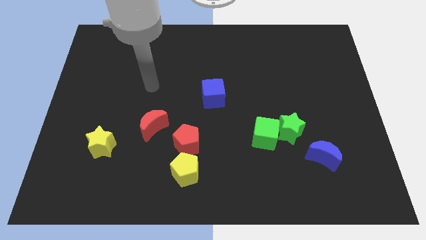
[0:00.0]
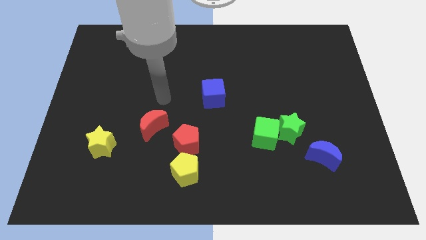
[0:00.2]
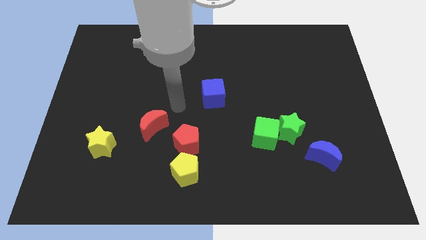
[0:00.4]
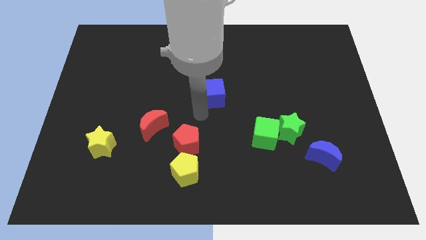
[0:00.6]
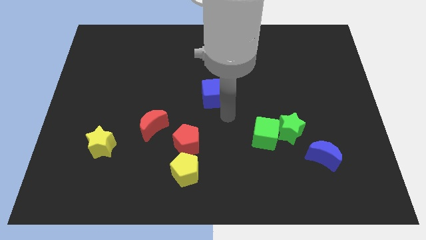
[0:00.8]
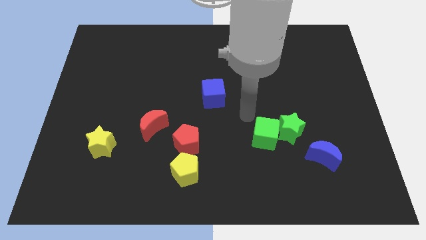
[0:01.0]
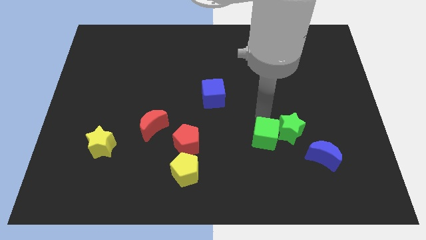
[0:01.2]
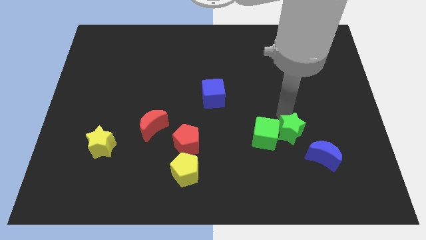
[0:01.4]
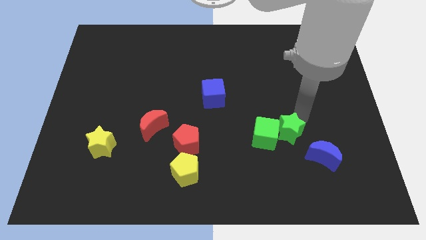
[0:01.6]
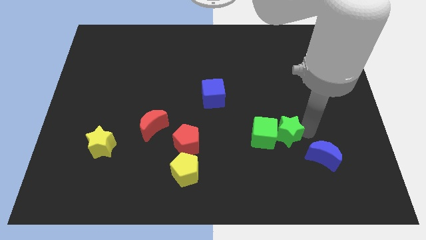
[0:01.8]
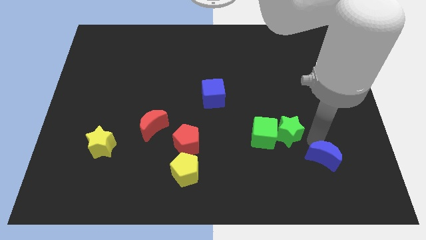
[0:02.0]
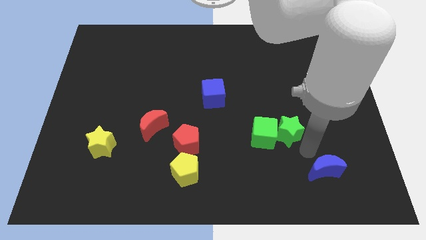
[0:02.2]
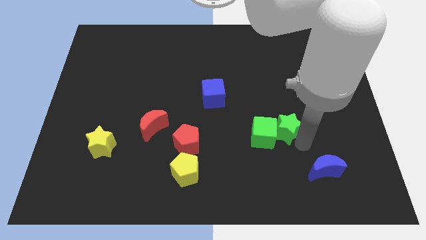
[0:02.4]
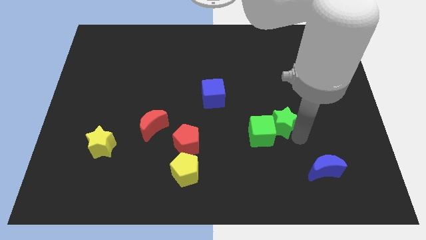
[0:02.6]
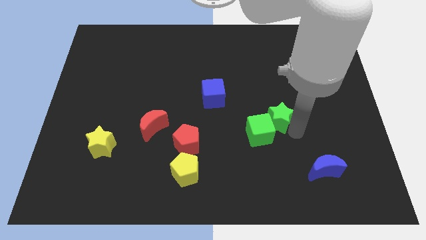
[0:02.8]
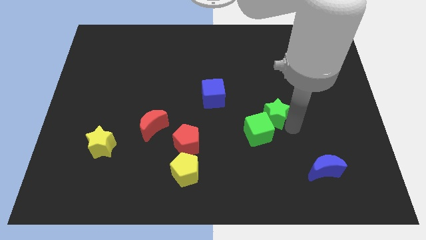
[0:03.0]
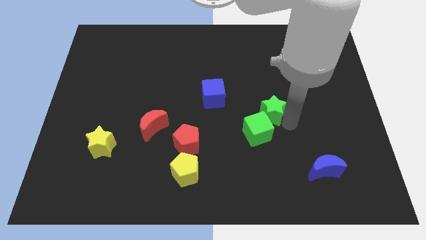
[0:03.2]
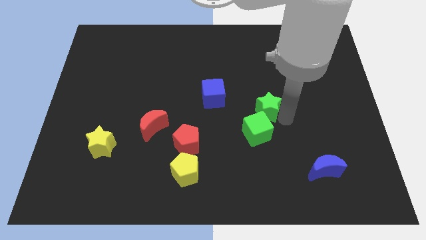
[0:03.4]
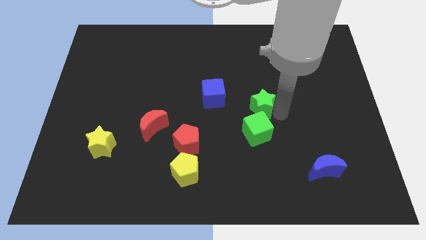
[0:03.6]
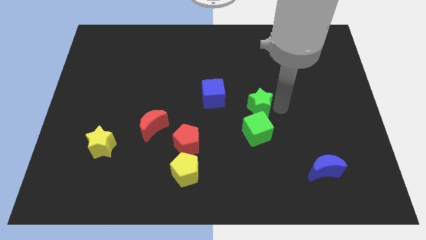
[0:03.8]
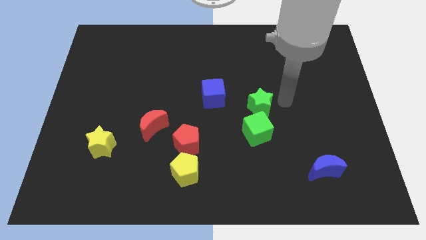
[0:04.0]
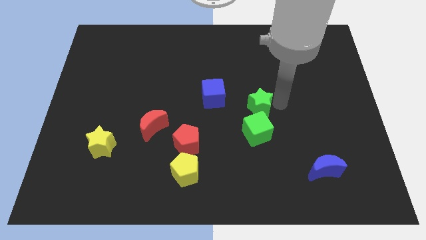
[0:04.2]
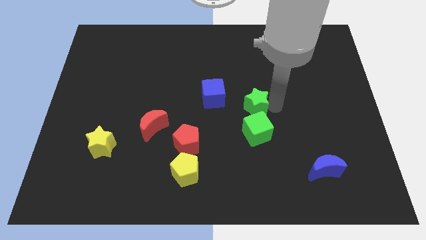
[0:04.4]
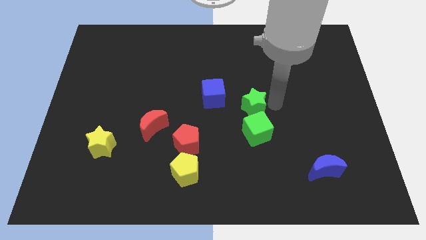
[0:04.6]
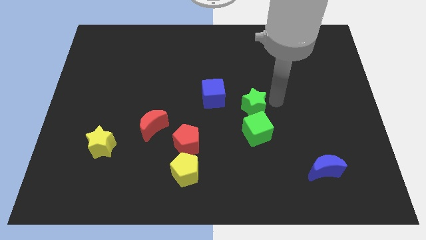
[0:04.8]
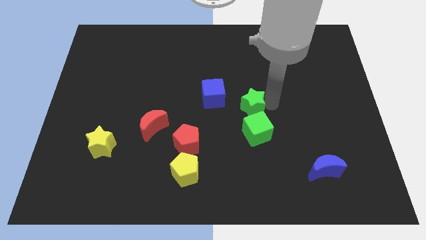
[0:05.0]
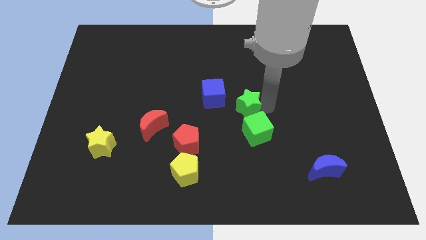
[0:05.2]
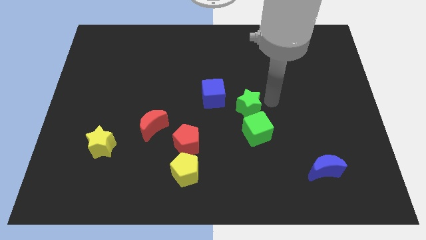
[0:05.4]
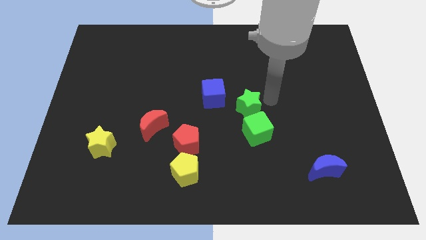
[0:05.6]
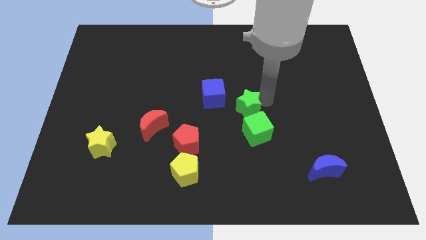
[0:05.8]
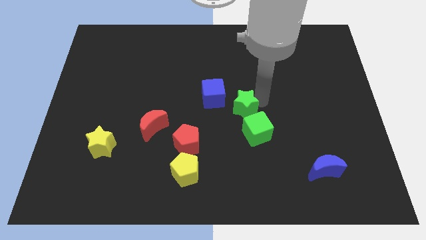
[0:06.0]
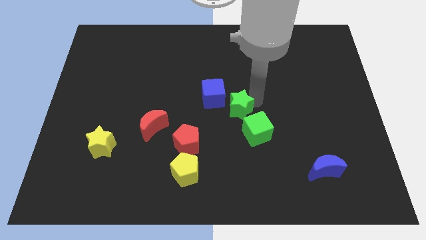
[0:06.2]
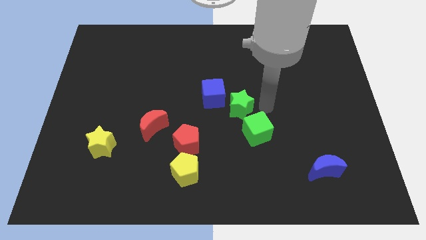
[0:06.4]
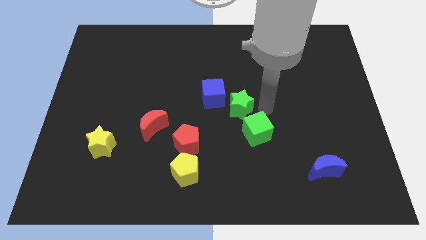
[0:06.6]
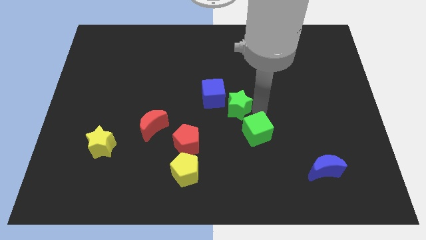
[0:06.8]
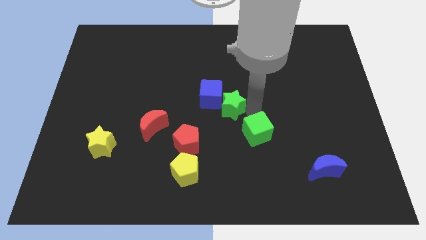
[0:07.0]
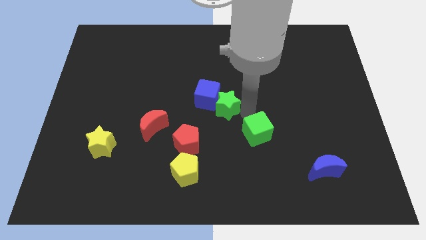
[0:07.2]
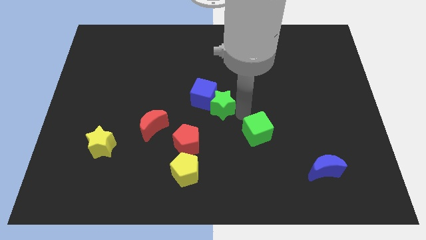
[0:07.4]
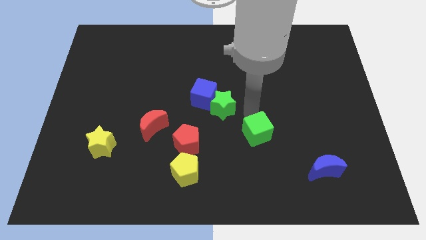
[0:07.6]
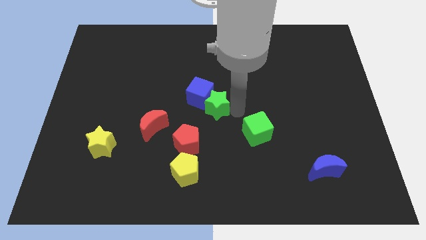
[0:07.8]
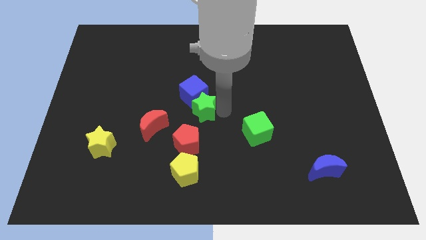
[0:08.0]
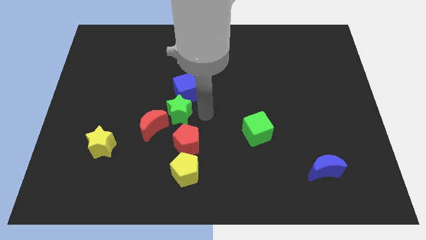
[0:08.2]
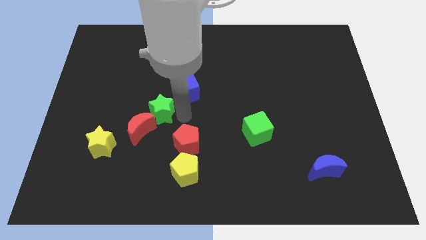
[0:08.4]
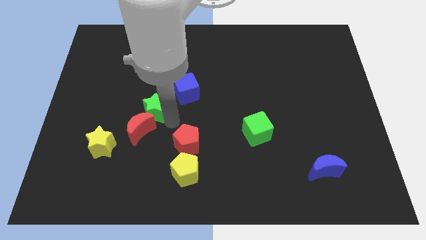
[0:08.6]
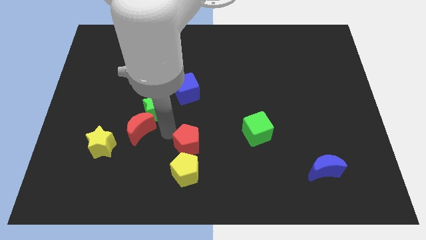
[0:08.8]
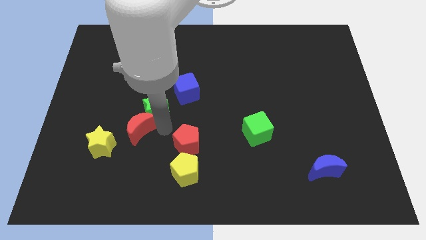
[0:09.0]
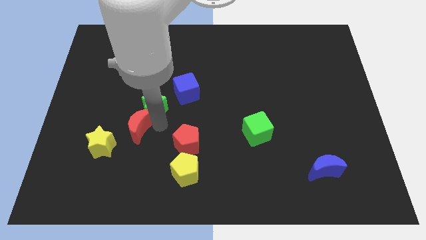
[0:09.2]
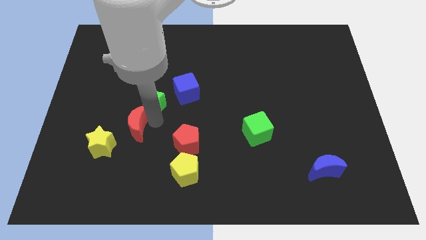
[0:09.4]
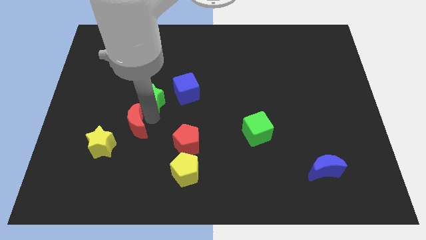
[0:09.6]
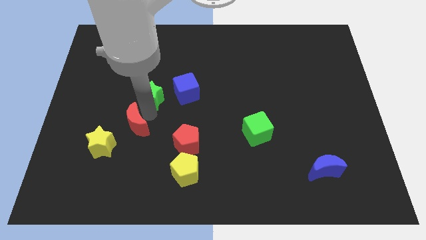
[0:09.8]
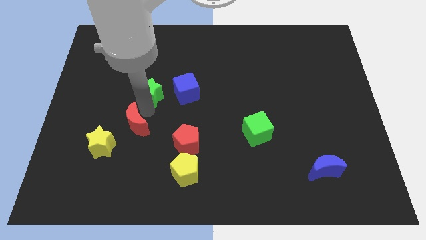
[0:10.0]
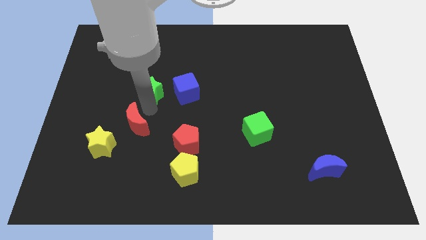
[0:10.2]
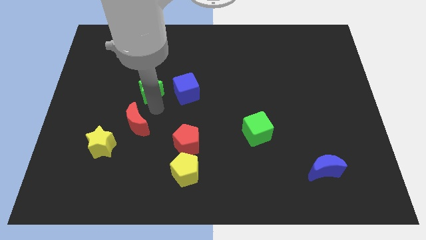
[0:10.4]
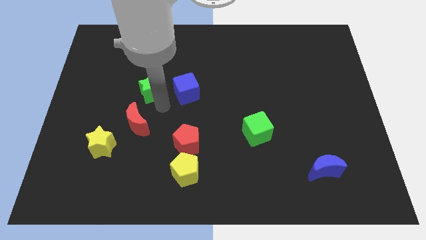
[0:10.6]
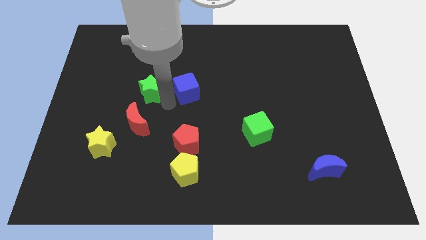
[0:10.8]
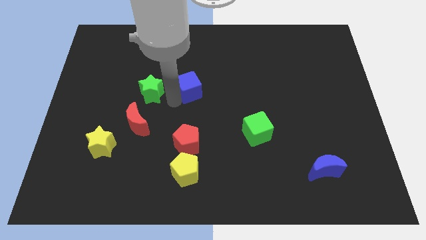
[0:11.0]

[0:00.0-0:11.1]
push the green star left of the blue cube

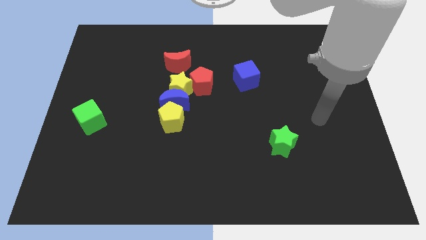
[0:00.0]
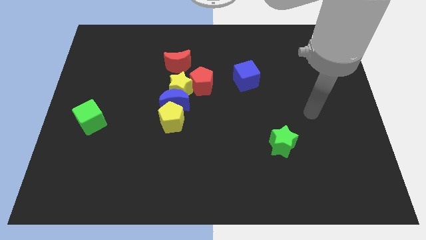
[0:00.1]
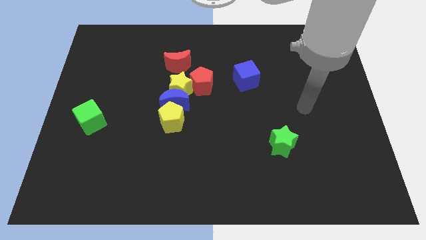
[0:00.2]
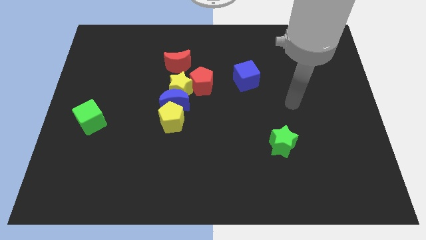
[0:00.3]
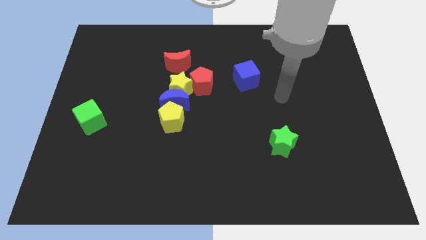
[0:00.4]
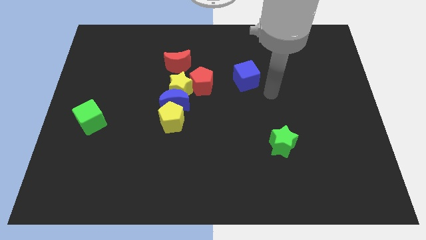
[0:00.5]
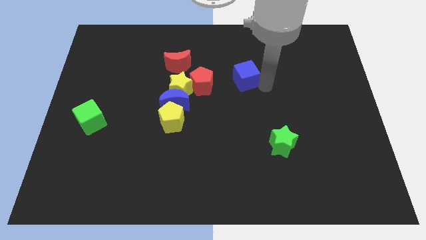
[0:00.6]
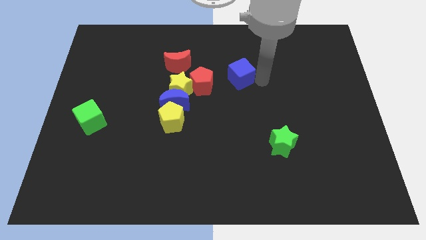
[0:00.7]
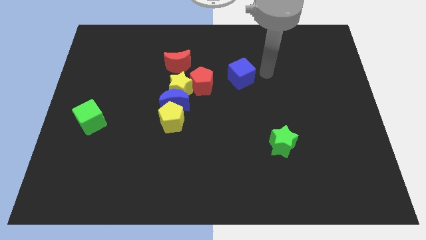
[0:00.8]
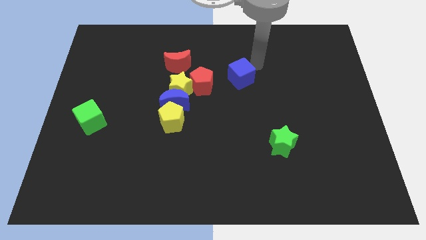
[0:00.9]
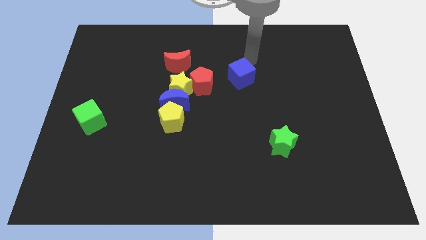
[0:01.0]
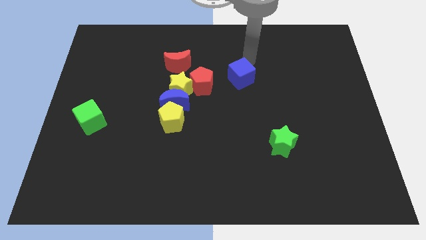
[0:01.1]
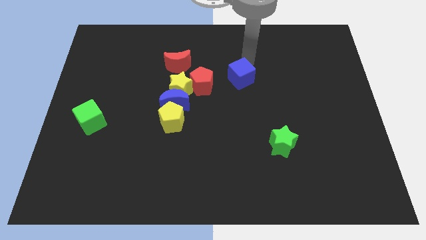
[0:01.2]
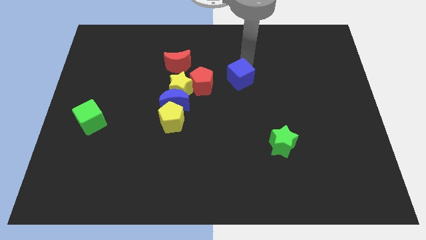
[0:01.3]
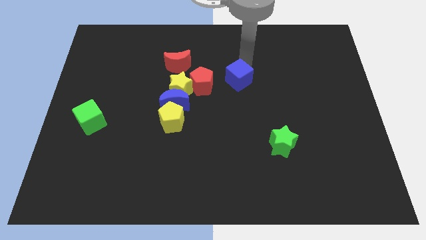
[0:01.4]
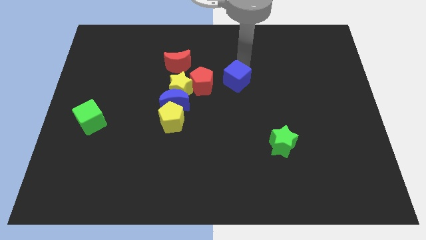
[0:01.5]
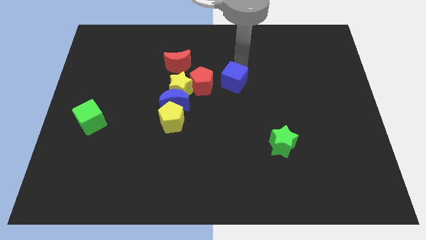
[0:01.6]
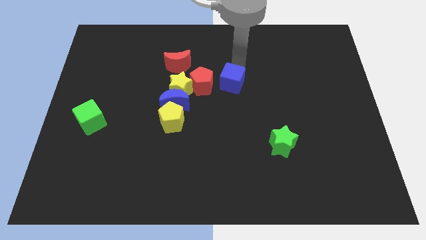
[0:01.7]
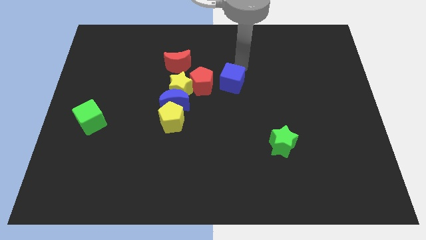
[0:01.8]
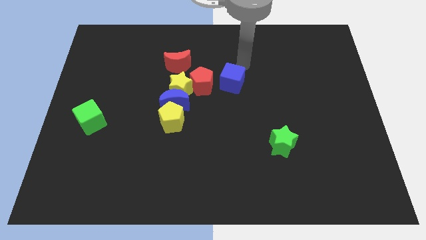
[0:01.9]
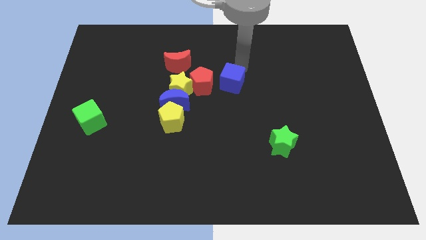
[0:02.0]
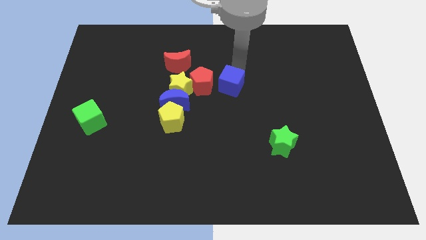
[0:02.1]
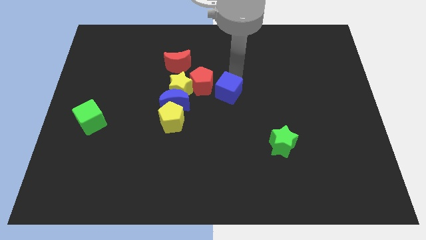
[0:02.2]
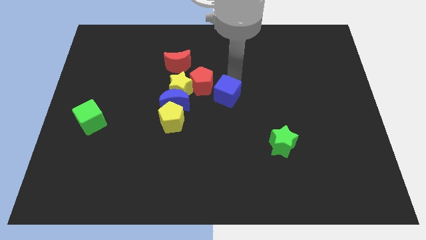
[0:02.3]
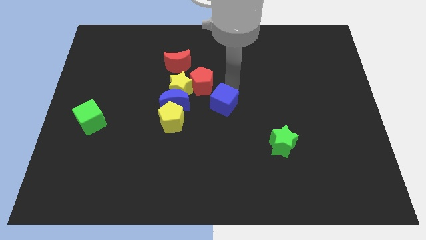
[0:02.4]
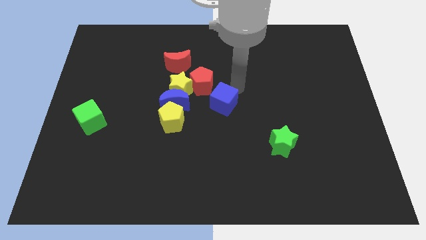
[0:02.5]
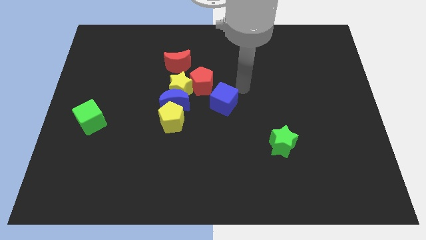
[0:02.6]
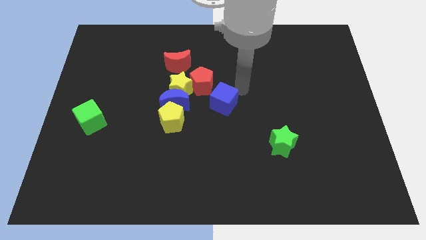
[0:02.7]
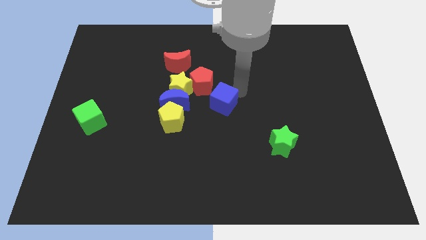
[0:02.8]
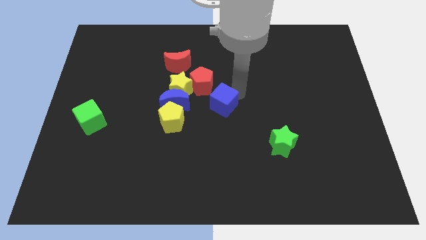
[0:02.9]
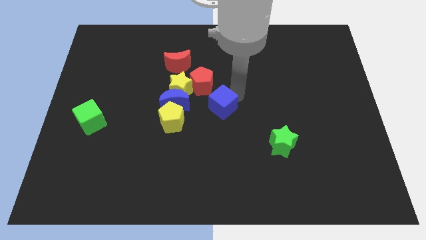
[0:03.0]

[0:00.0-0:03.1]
slide the blue cube to the bottom of the red pentagon
